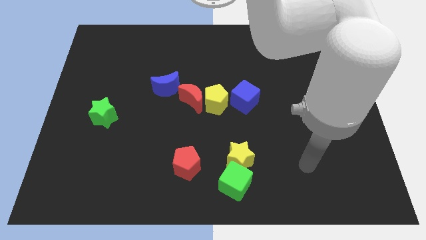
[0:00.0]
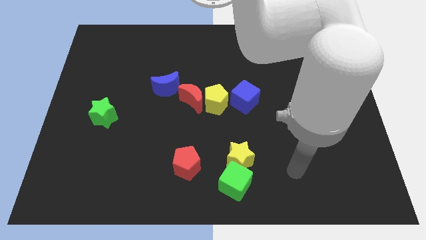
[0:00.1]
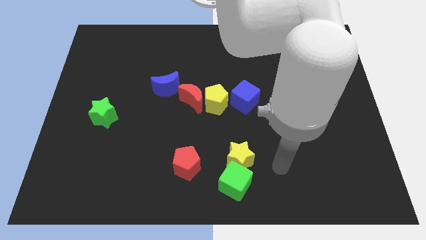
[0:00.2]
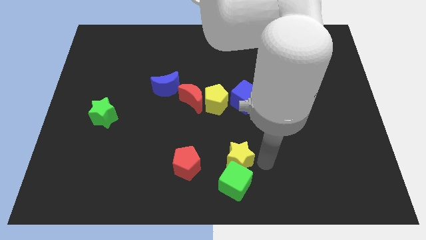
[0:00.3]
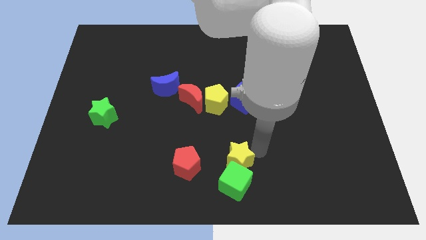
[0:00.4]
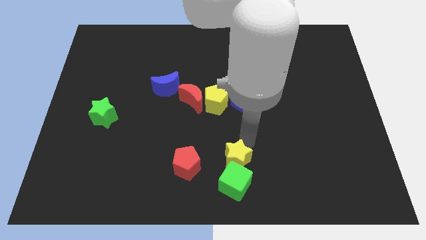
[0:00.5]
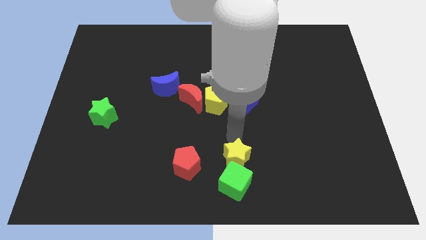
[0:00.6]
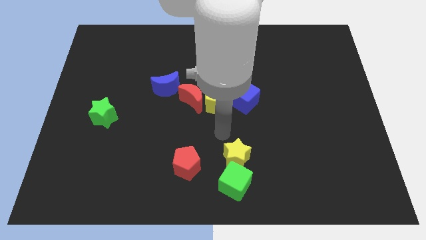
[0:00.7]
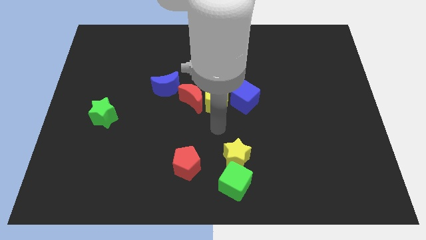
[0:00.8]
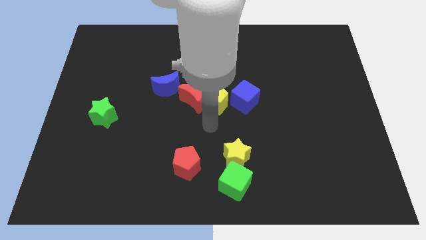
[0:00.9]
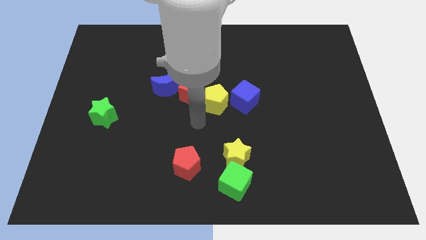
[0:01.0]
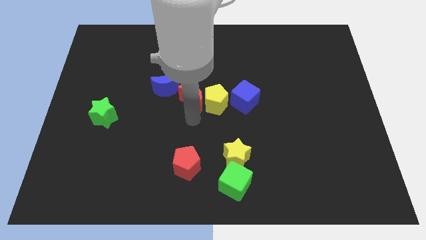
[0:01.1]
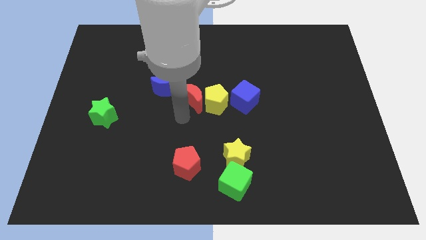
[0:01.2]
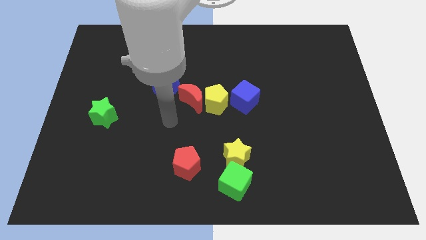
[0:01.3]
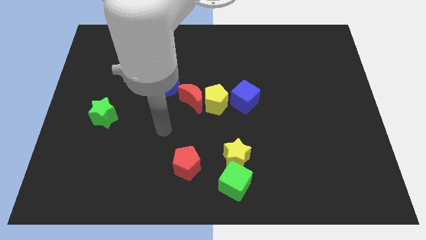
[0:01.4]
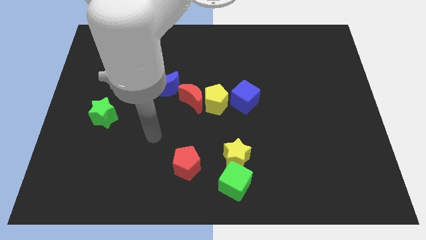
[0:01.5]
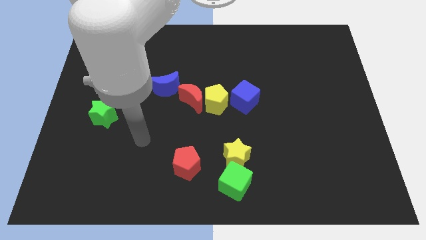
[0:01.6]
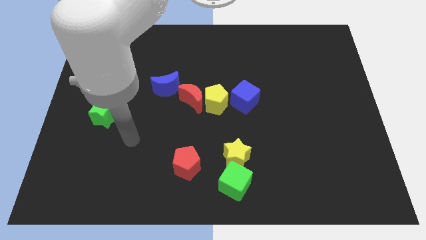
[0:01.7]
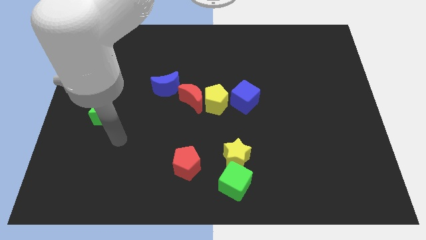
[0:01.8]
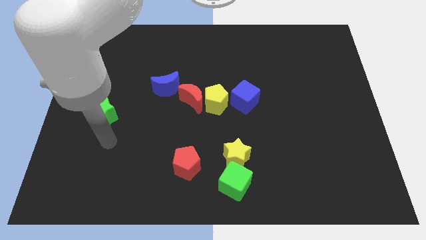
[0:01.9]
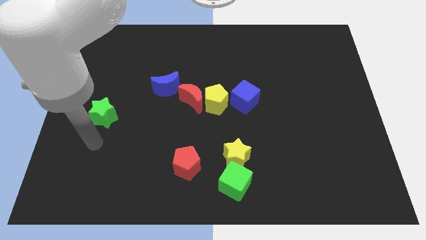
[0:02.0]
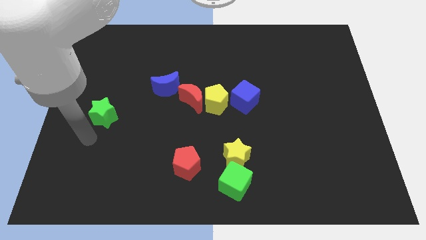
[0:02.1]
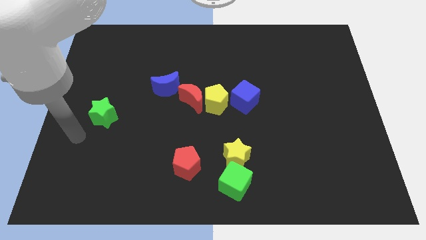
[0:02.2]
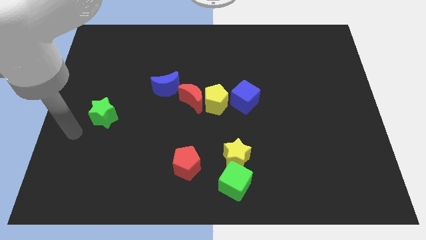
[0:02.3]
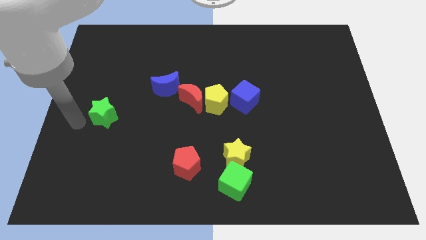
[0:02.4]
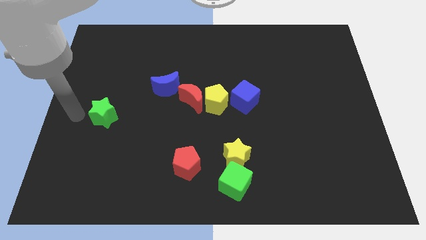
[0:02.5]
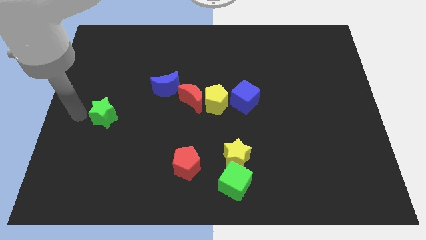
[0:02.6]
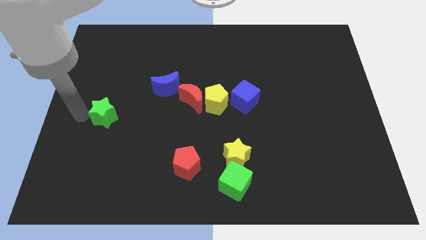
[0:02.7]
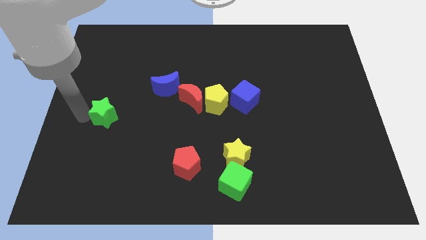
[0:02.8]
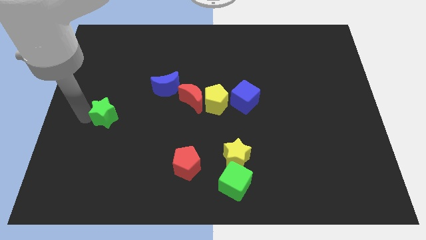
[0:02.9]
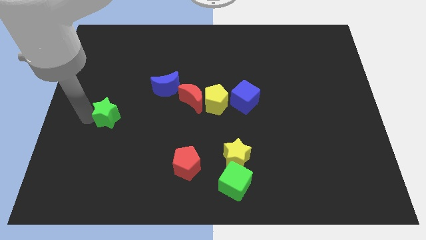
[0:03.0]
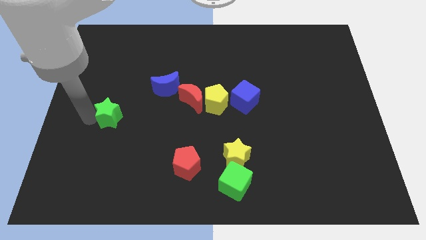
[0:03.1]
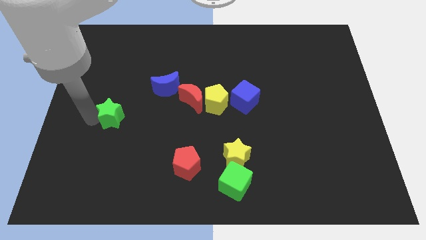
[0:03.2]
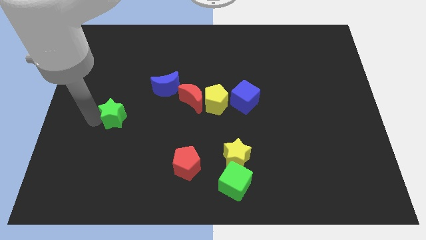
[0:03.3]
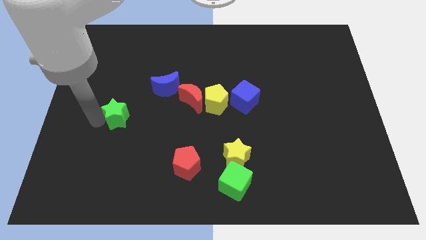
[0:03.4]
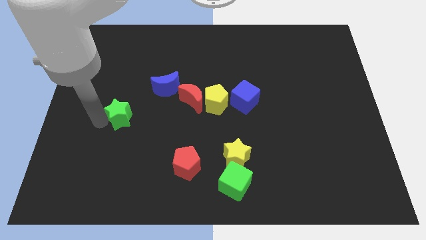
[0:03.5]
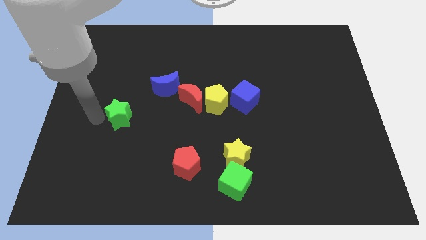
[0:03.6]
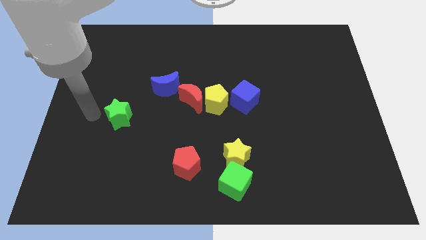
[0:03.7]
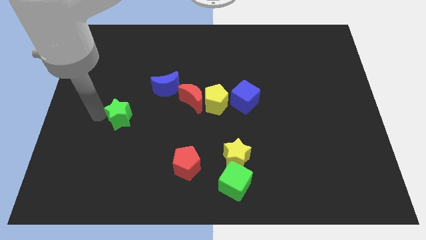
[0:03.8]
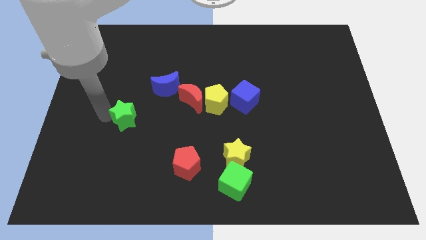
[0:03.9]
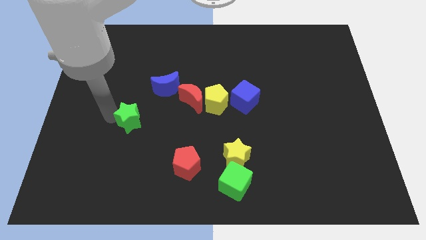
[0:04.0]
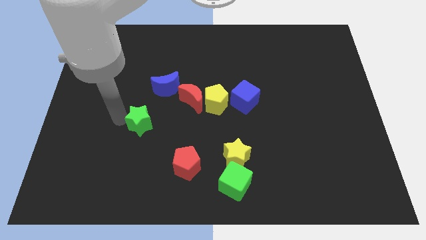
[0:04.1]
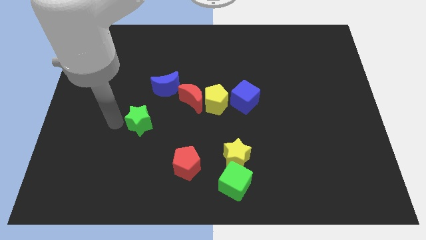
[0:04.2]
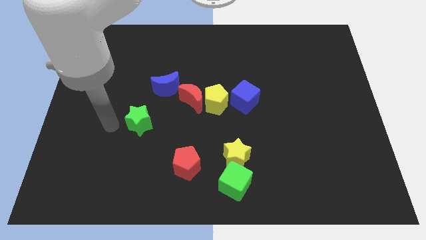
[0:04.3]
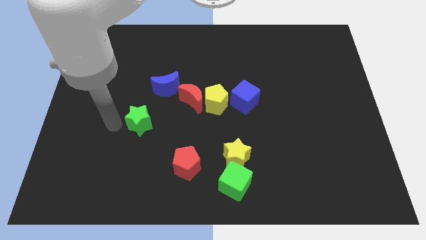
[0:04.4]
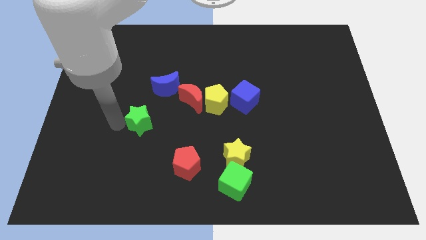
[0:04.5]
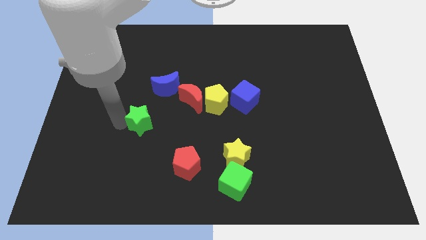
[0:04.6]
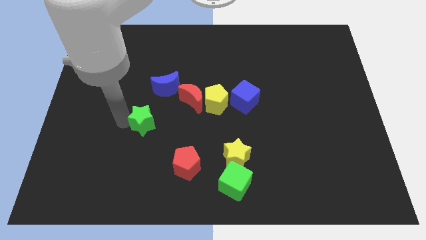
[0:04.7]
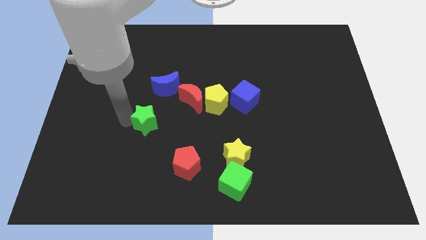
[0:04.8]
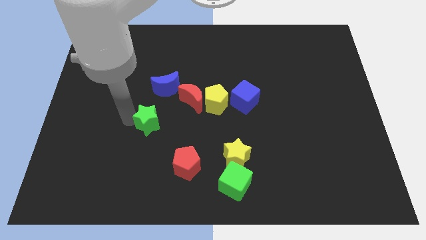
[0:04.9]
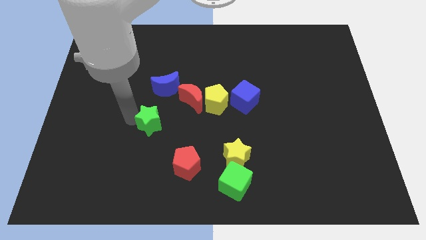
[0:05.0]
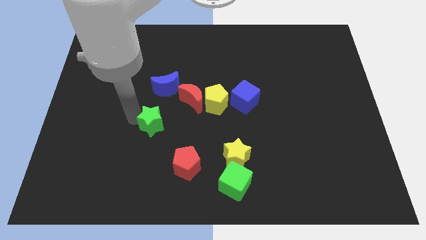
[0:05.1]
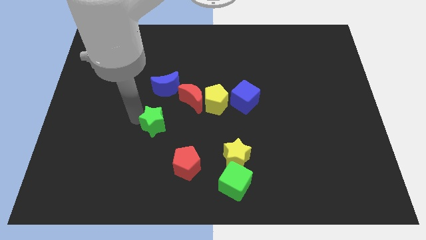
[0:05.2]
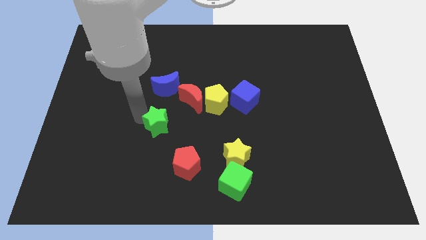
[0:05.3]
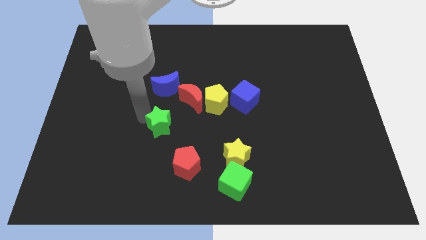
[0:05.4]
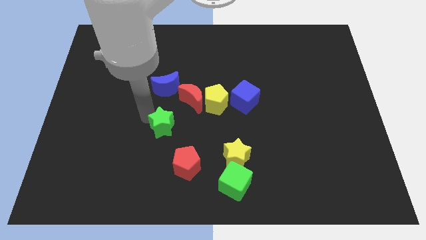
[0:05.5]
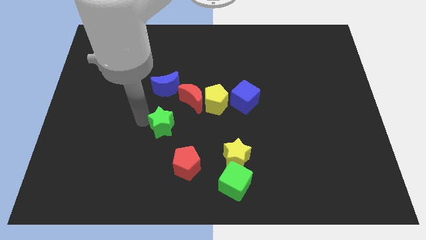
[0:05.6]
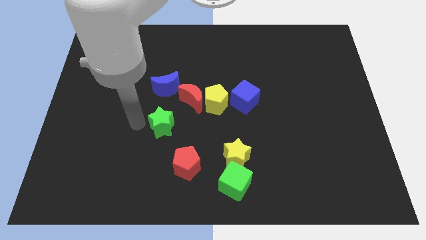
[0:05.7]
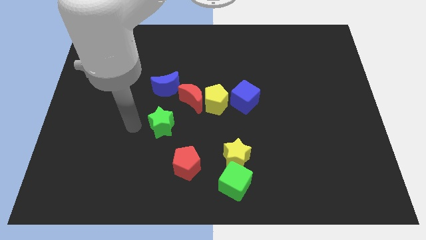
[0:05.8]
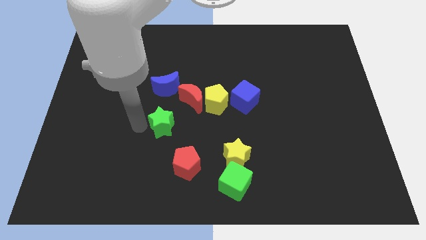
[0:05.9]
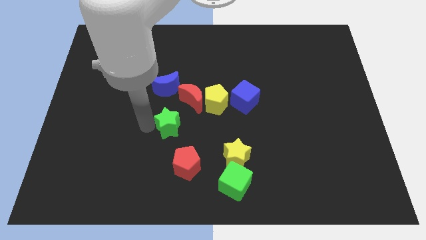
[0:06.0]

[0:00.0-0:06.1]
move the green star to the top of the red pentagon

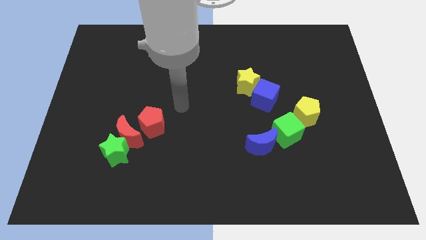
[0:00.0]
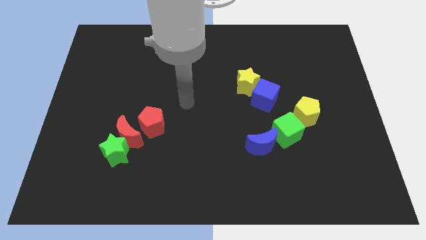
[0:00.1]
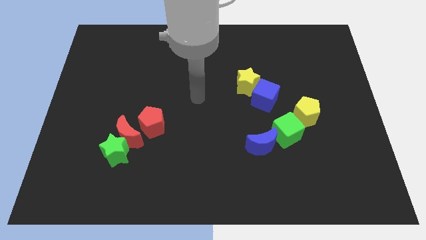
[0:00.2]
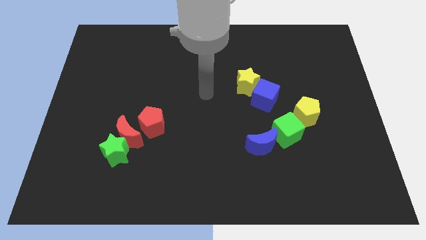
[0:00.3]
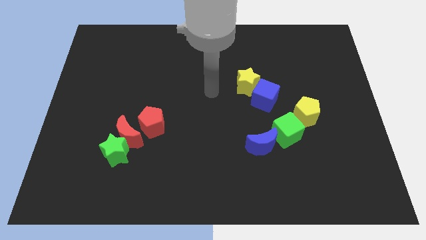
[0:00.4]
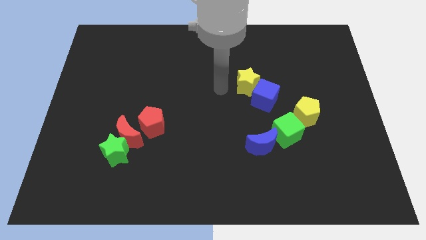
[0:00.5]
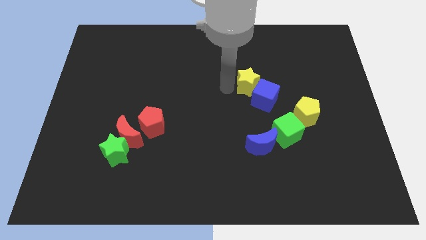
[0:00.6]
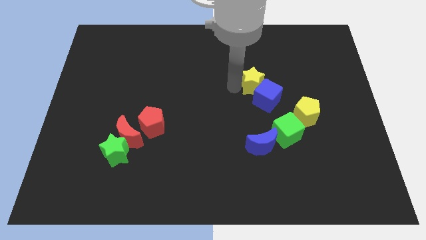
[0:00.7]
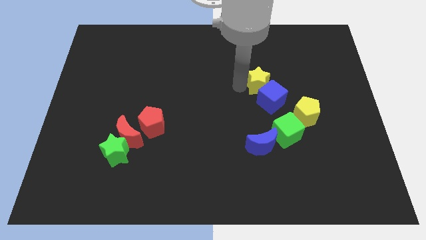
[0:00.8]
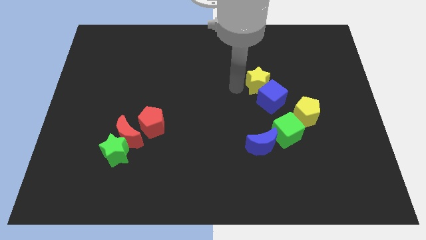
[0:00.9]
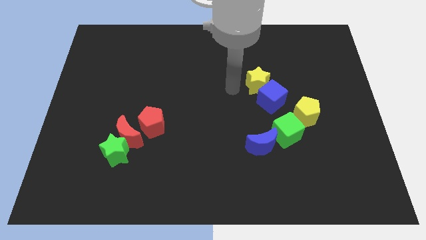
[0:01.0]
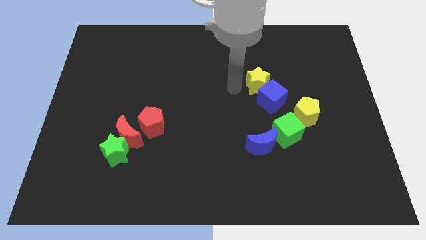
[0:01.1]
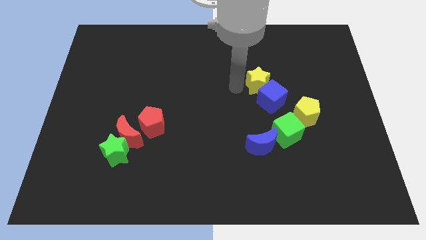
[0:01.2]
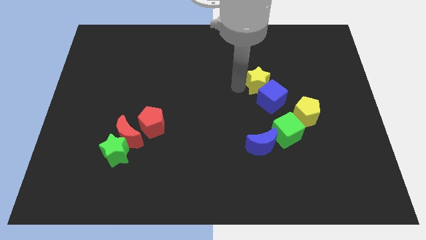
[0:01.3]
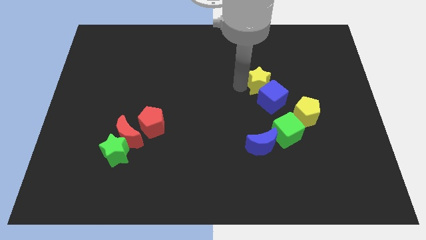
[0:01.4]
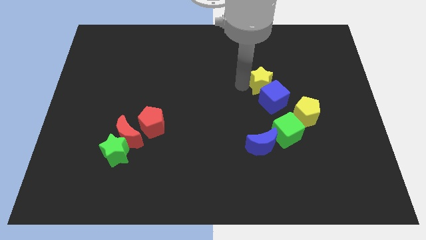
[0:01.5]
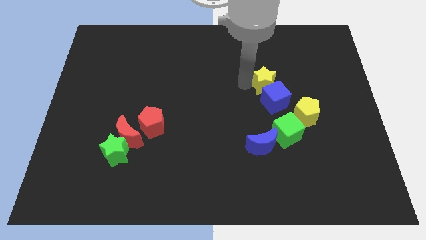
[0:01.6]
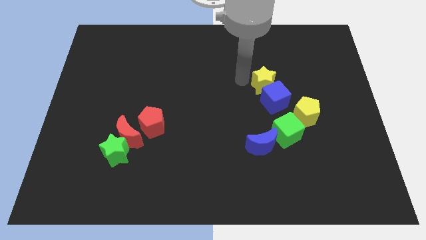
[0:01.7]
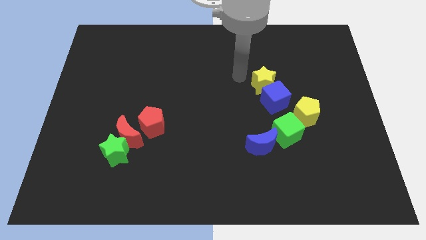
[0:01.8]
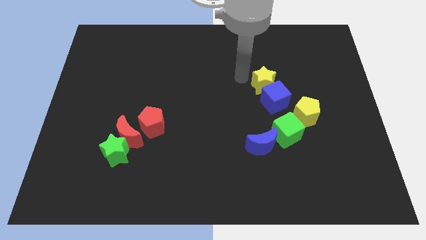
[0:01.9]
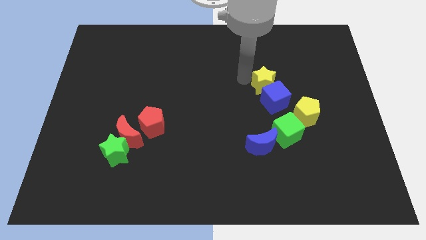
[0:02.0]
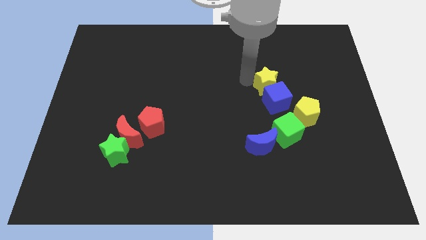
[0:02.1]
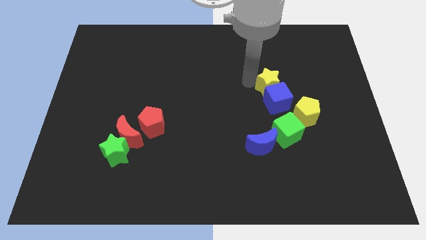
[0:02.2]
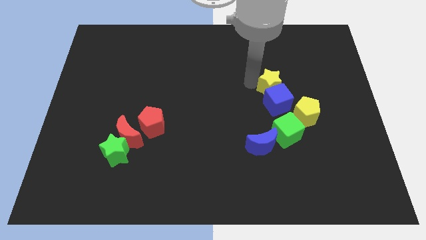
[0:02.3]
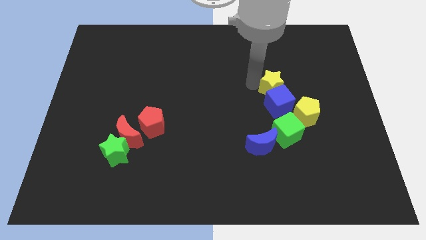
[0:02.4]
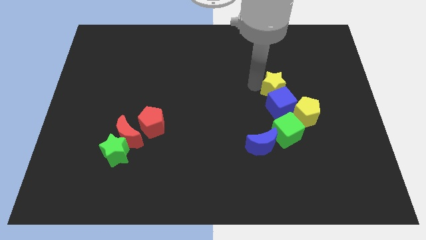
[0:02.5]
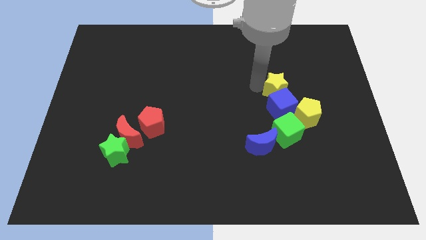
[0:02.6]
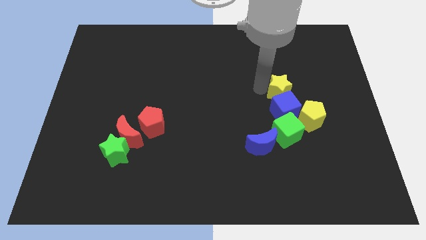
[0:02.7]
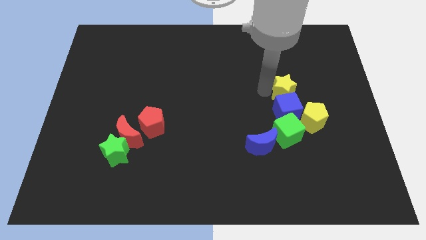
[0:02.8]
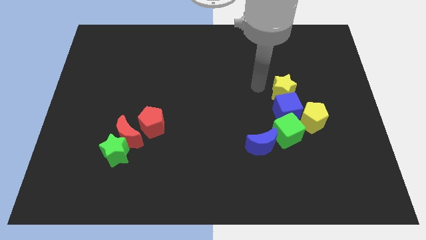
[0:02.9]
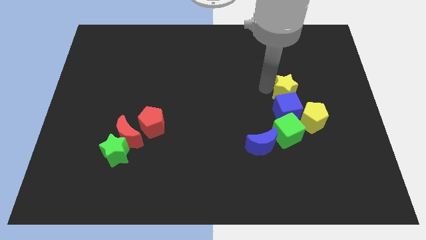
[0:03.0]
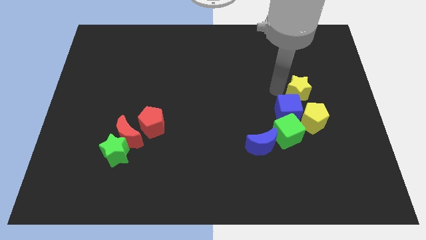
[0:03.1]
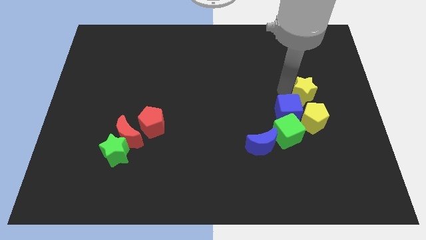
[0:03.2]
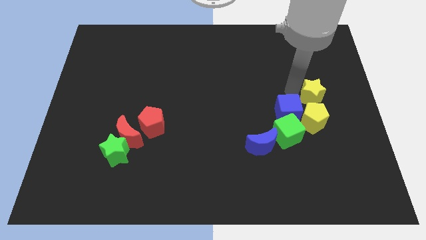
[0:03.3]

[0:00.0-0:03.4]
push the yellow star to the top right of the yellow pentagon
